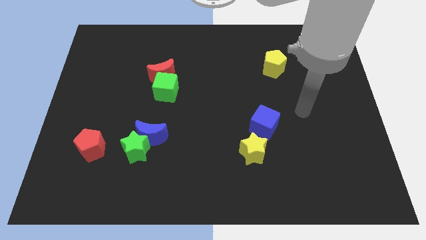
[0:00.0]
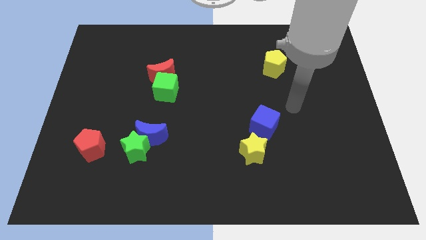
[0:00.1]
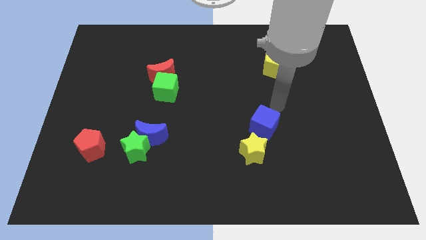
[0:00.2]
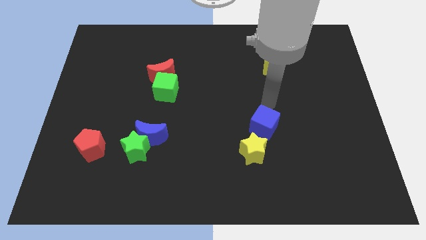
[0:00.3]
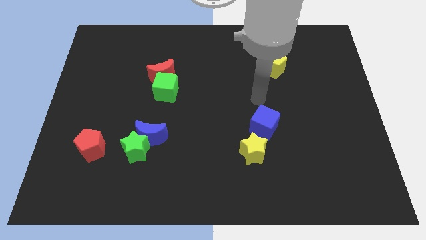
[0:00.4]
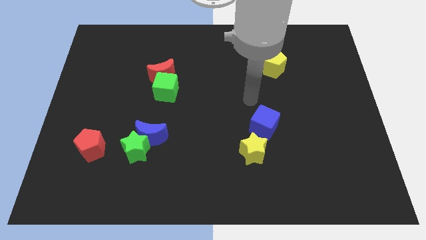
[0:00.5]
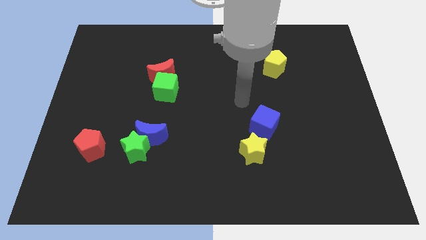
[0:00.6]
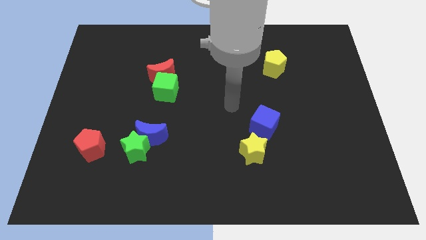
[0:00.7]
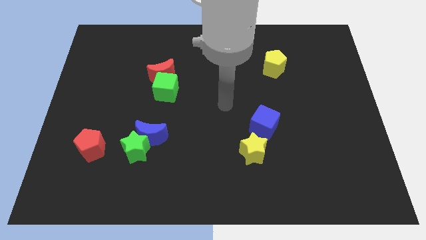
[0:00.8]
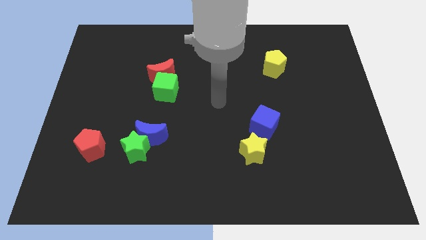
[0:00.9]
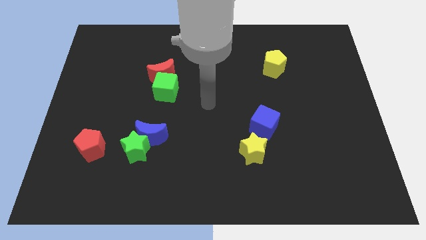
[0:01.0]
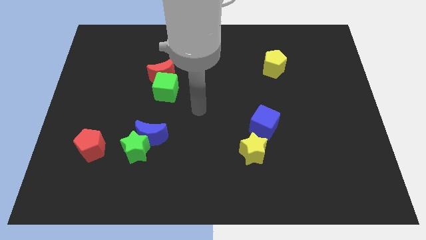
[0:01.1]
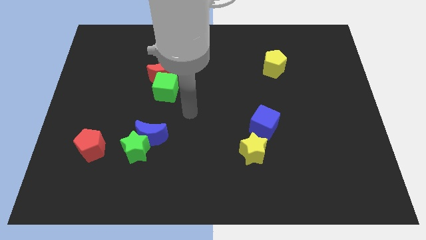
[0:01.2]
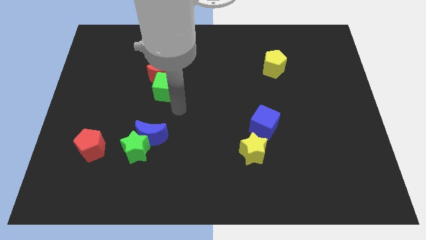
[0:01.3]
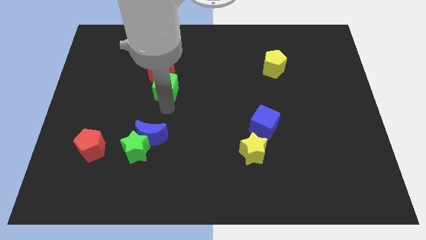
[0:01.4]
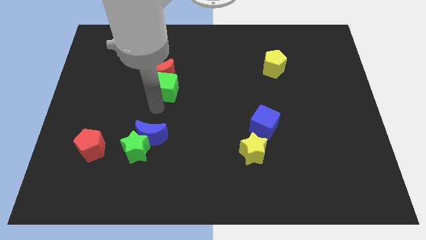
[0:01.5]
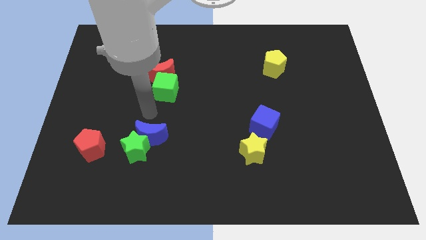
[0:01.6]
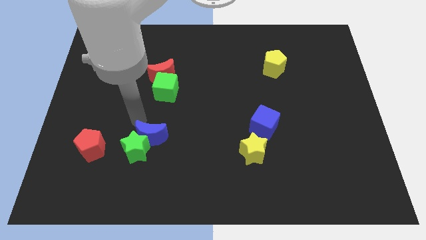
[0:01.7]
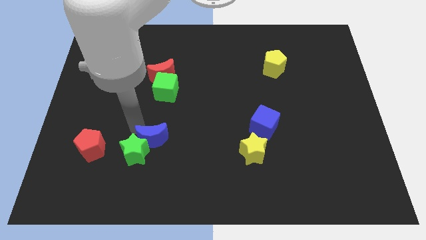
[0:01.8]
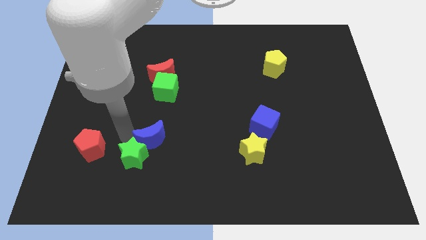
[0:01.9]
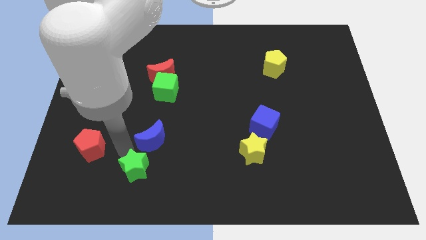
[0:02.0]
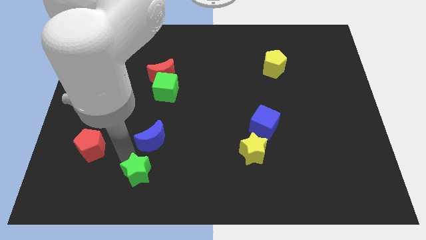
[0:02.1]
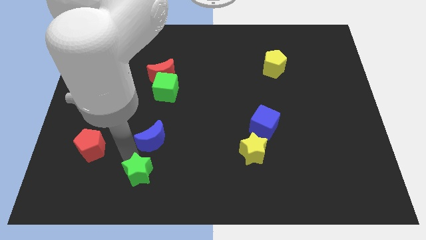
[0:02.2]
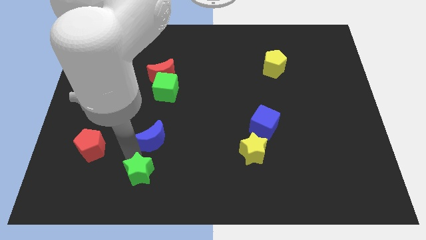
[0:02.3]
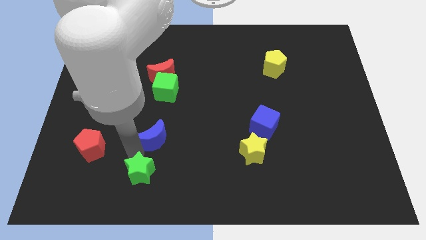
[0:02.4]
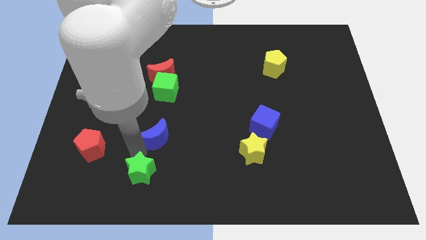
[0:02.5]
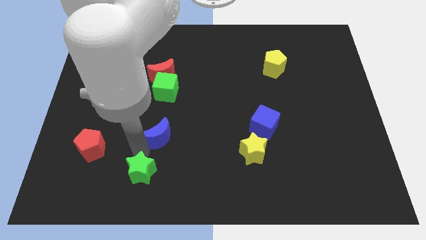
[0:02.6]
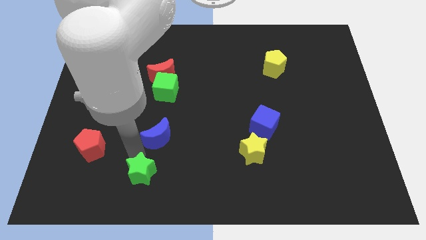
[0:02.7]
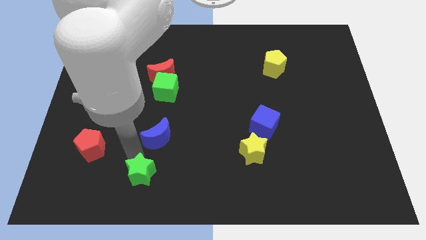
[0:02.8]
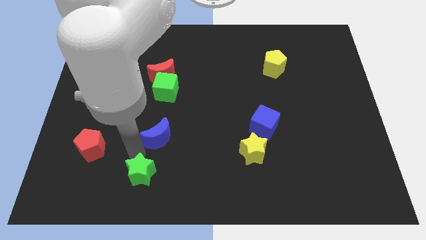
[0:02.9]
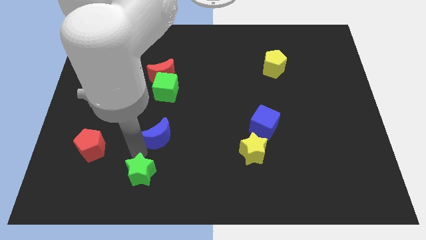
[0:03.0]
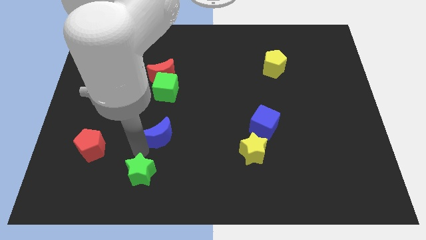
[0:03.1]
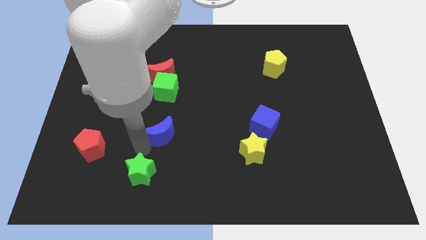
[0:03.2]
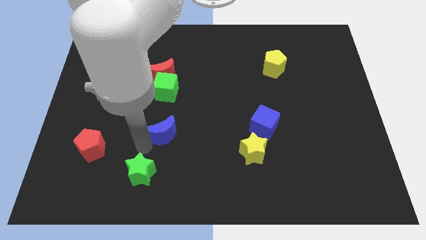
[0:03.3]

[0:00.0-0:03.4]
move the blue moon away from the green star

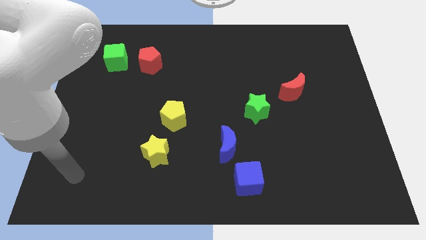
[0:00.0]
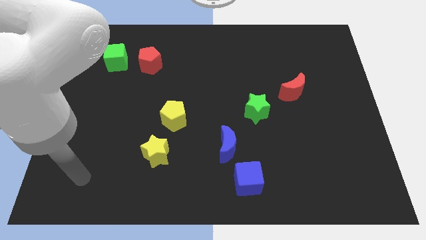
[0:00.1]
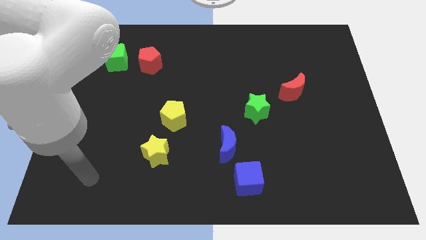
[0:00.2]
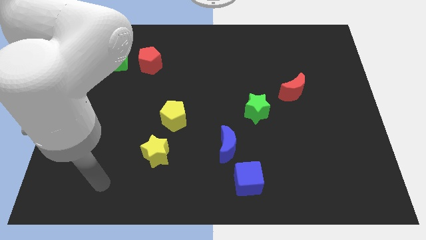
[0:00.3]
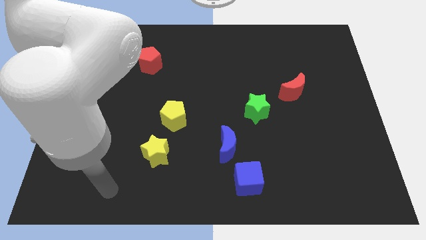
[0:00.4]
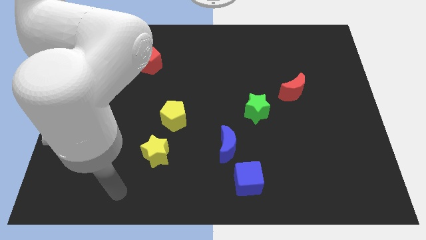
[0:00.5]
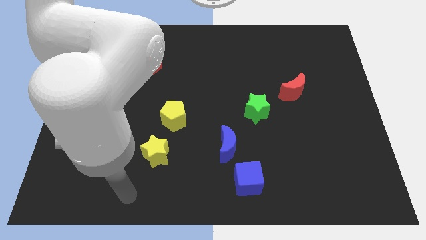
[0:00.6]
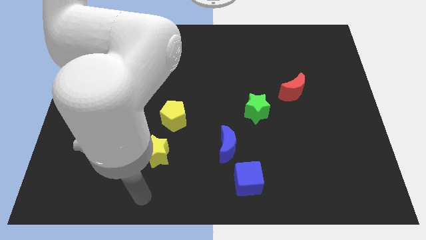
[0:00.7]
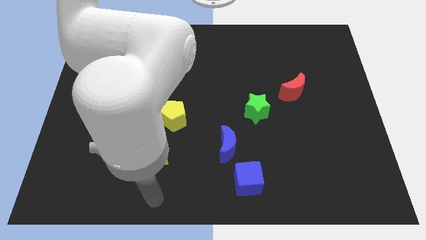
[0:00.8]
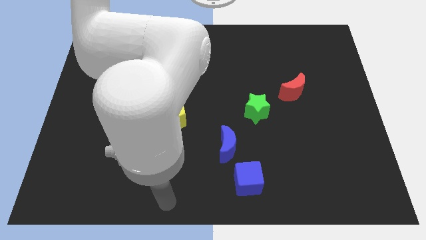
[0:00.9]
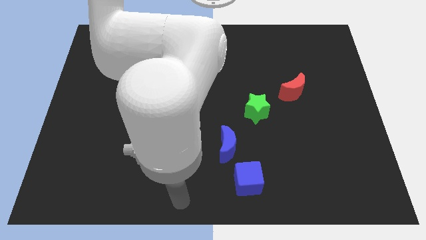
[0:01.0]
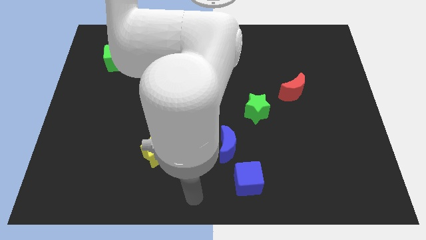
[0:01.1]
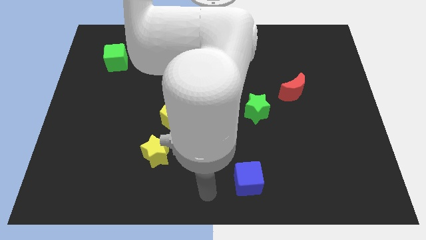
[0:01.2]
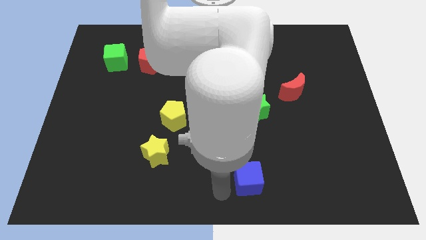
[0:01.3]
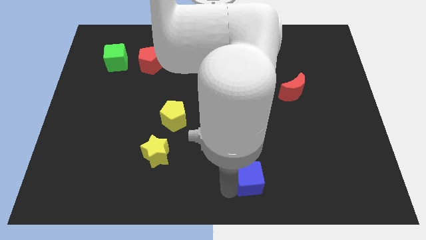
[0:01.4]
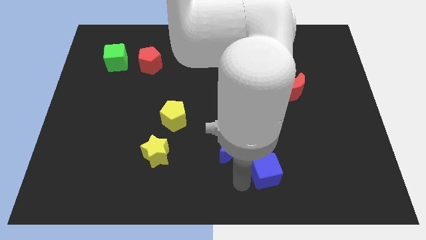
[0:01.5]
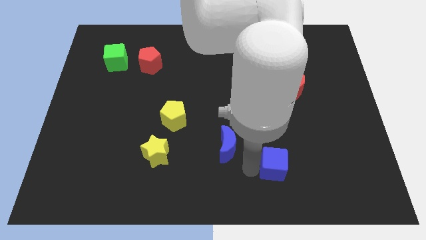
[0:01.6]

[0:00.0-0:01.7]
pull the blue moon apart from the blue cube

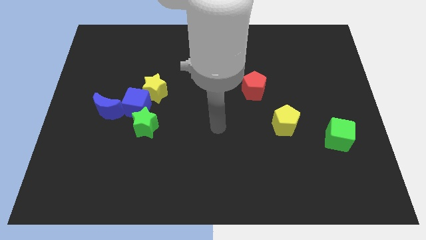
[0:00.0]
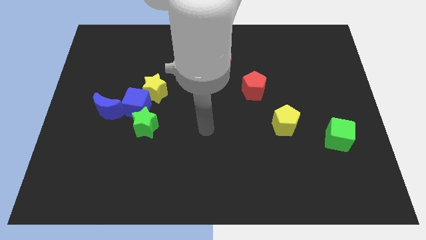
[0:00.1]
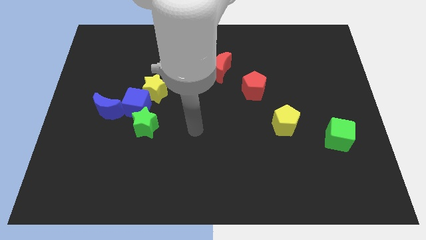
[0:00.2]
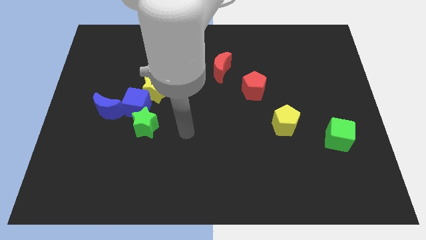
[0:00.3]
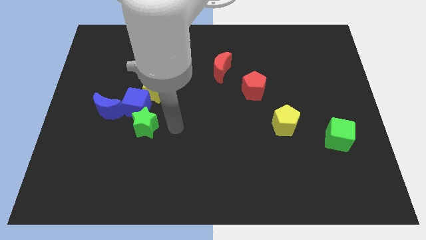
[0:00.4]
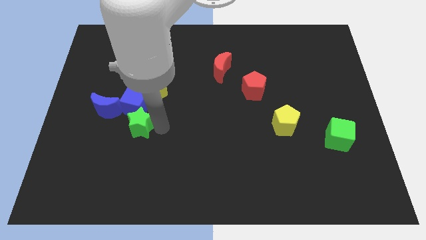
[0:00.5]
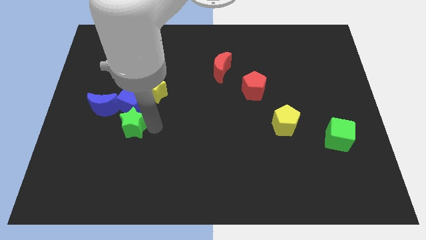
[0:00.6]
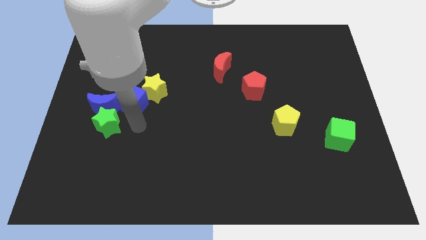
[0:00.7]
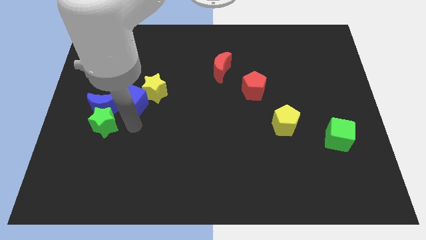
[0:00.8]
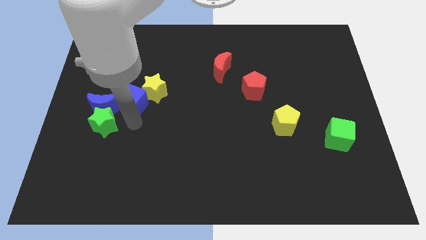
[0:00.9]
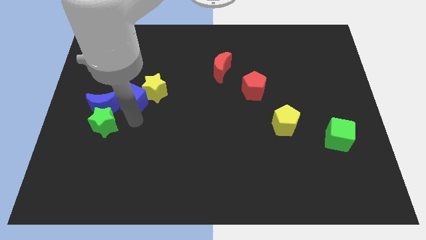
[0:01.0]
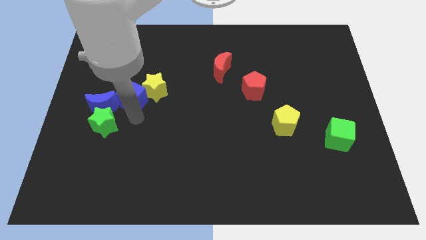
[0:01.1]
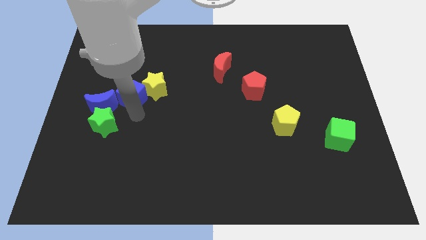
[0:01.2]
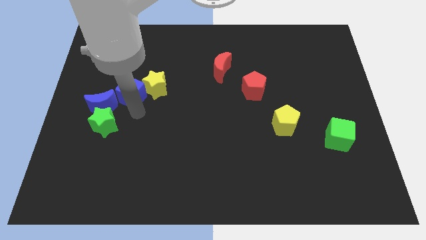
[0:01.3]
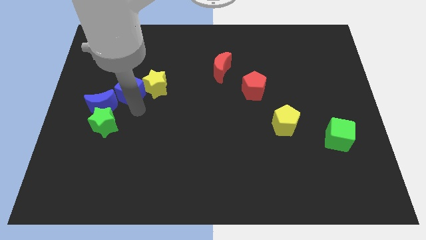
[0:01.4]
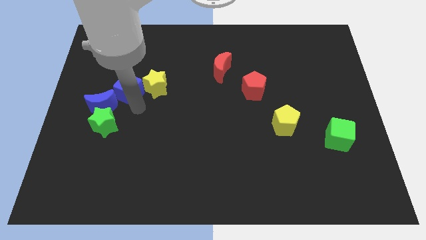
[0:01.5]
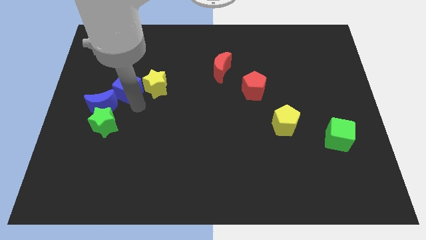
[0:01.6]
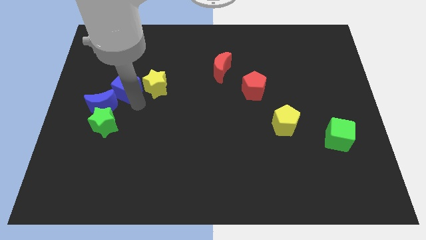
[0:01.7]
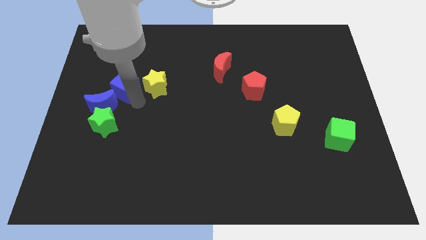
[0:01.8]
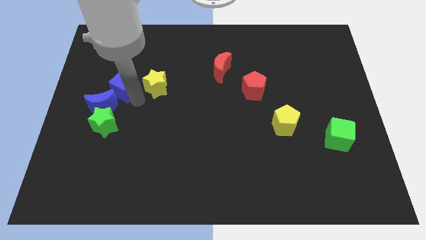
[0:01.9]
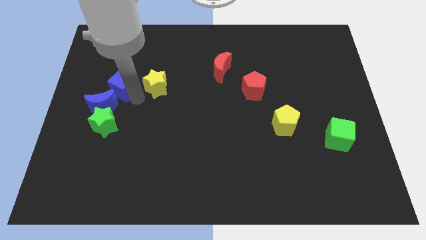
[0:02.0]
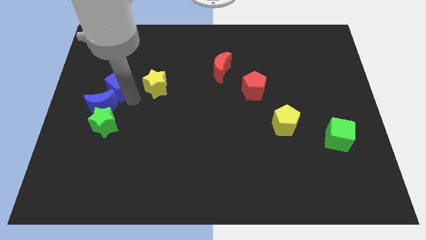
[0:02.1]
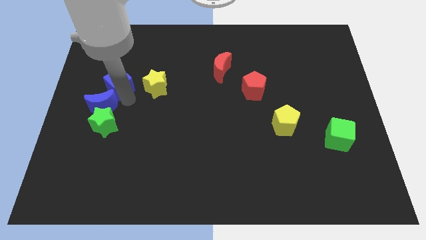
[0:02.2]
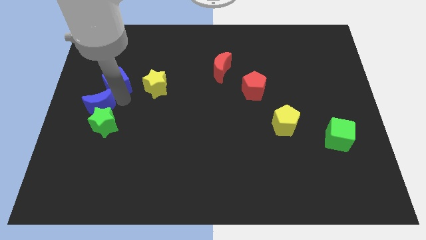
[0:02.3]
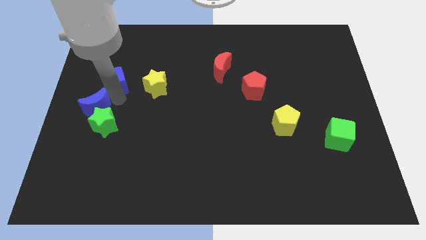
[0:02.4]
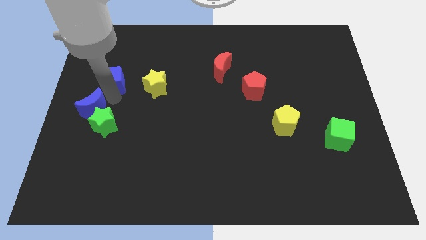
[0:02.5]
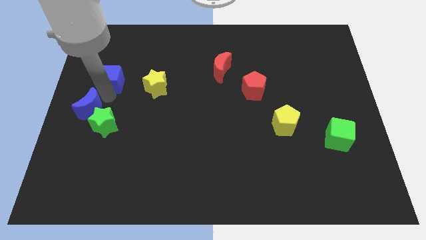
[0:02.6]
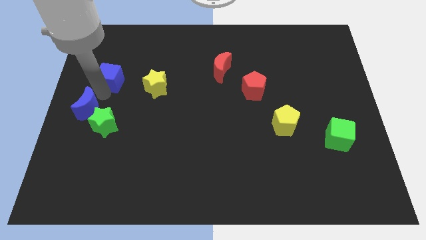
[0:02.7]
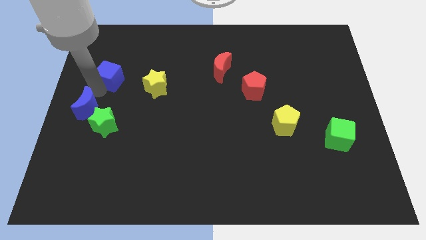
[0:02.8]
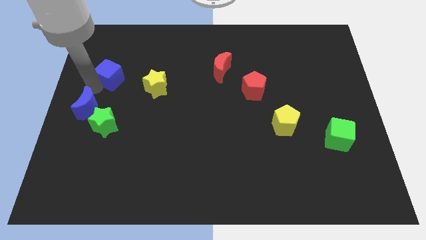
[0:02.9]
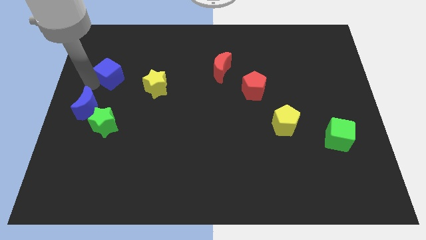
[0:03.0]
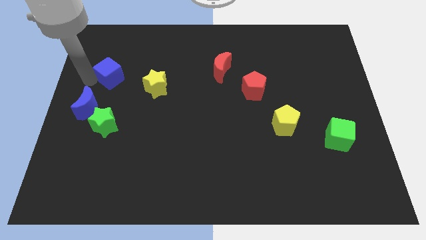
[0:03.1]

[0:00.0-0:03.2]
pull the blue cube apart from the yellow star, green star, and blue moon
